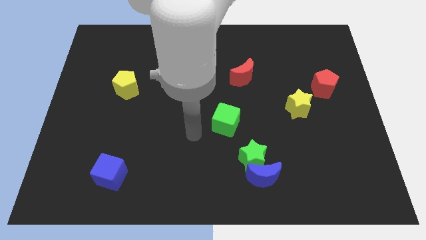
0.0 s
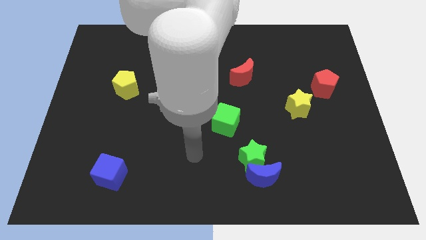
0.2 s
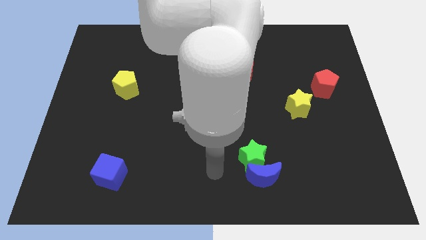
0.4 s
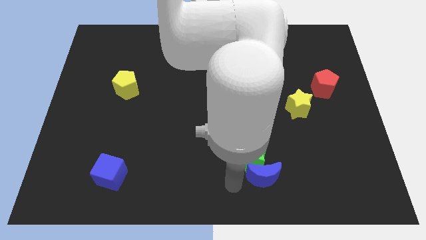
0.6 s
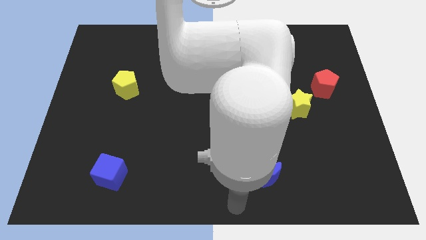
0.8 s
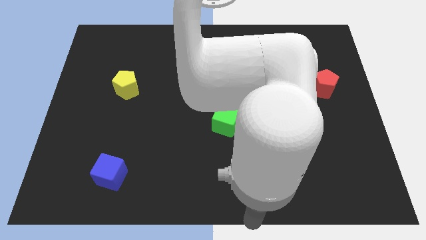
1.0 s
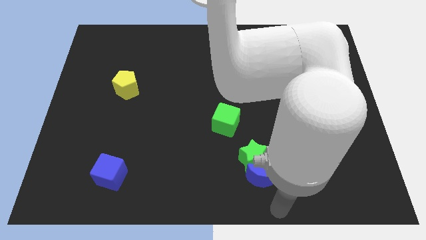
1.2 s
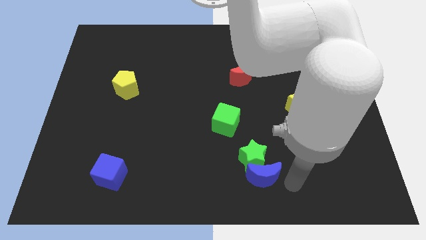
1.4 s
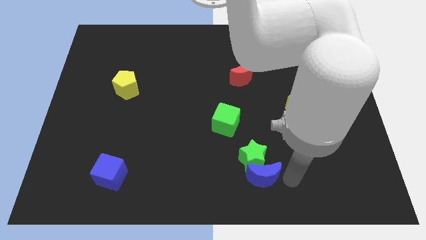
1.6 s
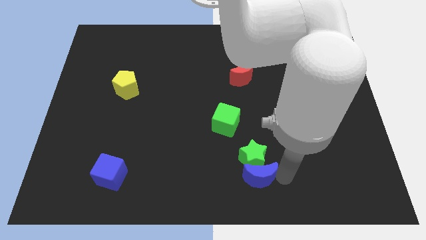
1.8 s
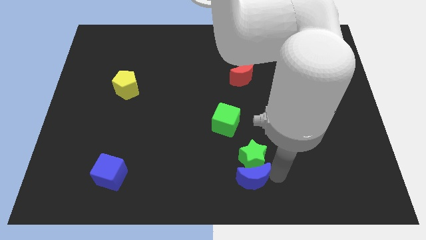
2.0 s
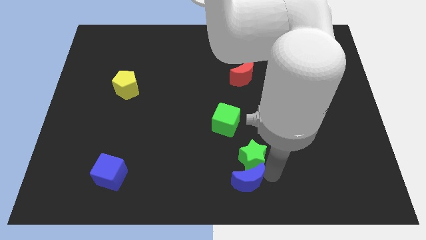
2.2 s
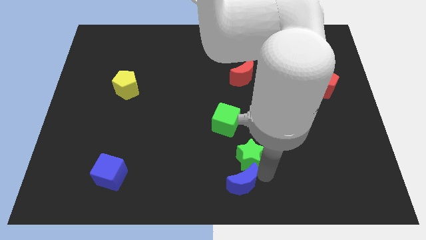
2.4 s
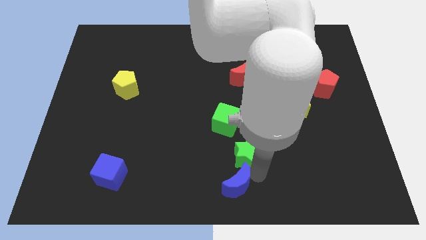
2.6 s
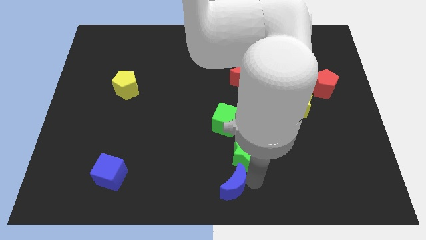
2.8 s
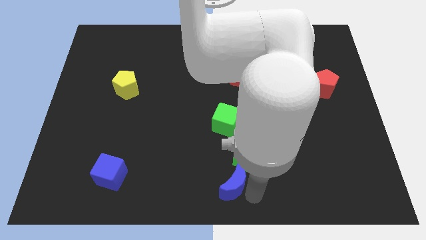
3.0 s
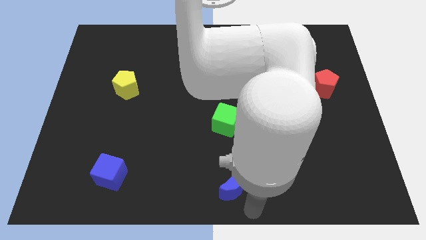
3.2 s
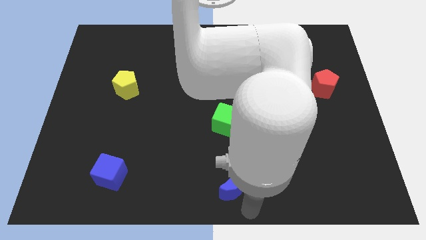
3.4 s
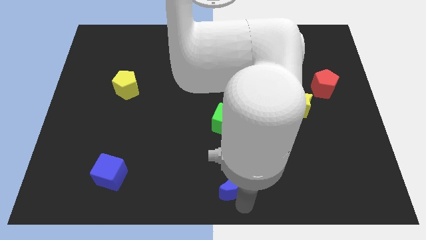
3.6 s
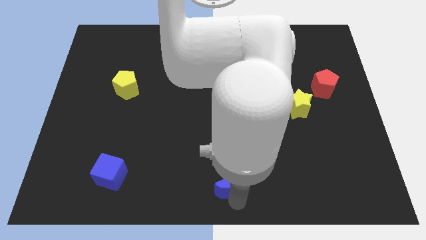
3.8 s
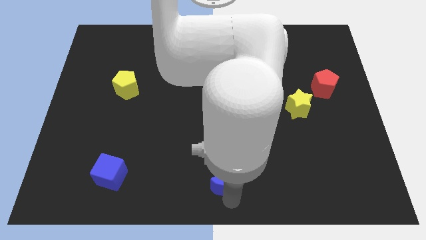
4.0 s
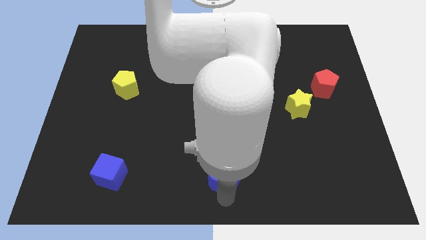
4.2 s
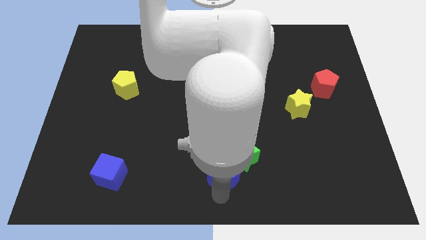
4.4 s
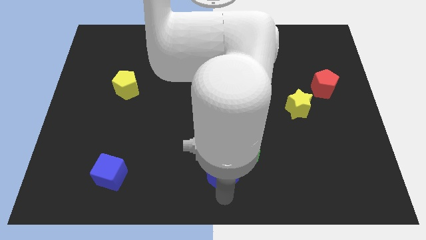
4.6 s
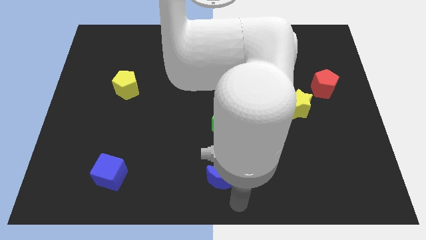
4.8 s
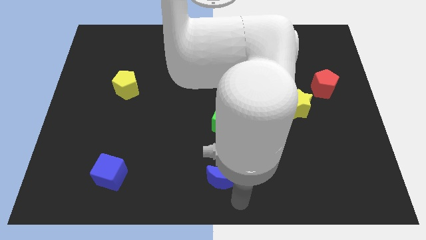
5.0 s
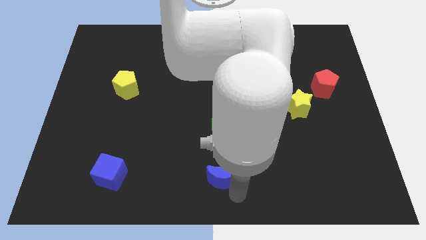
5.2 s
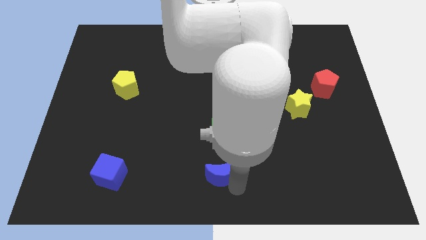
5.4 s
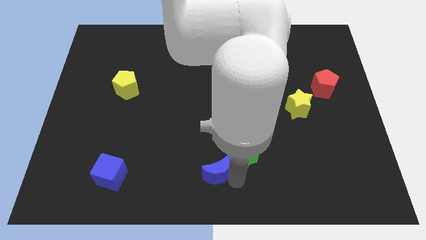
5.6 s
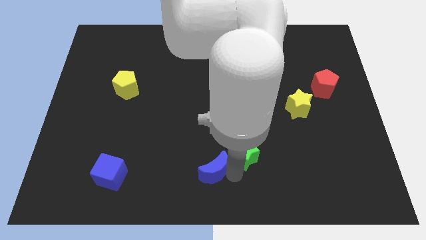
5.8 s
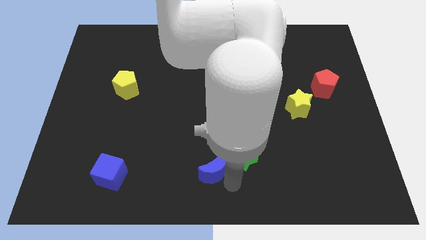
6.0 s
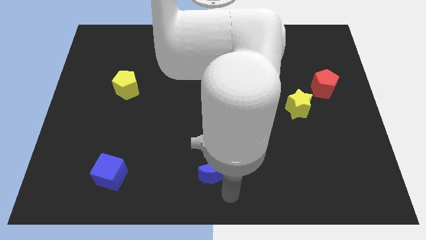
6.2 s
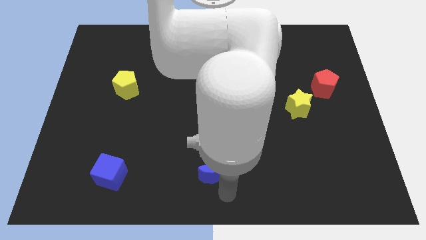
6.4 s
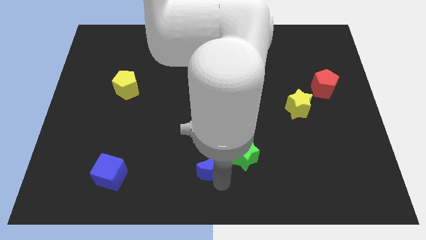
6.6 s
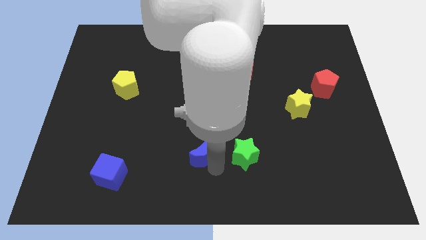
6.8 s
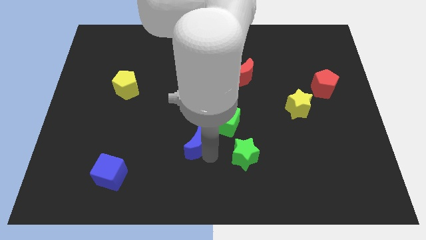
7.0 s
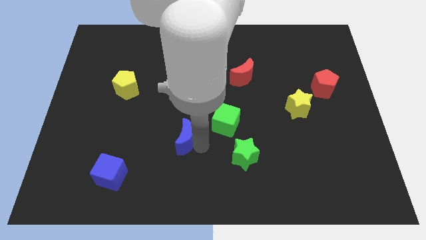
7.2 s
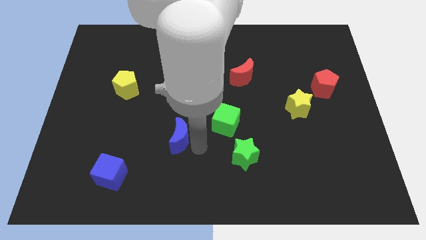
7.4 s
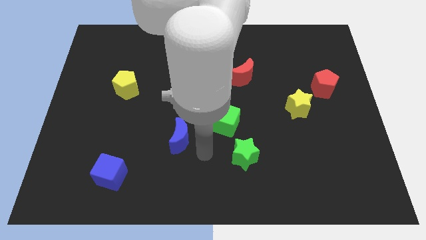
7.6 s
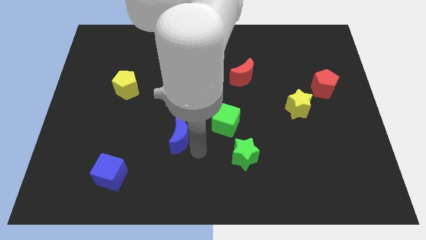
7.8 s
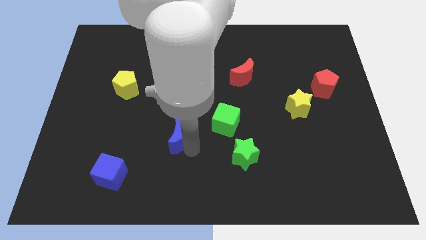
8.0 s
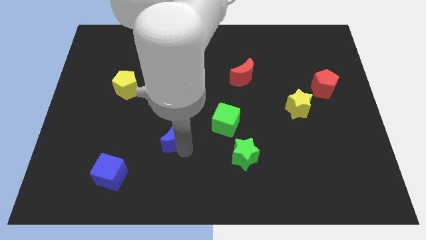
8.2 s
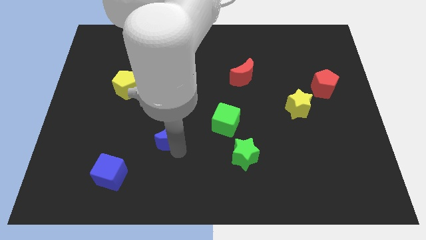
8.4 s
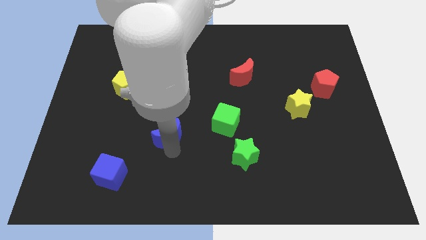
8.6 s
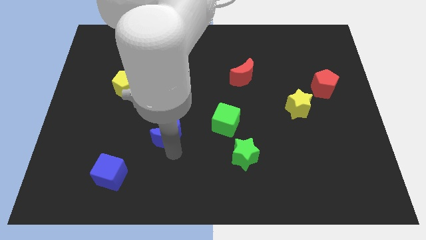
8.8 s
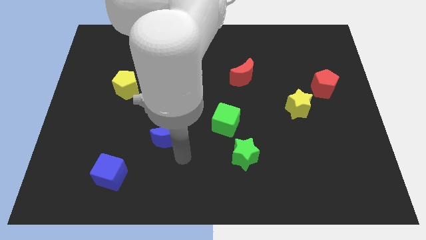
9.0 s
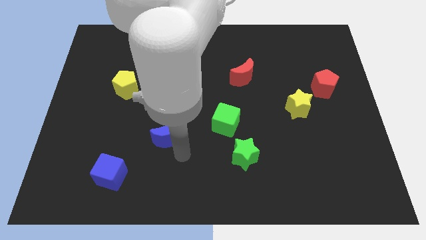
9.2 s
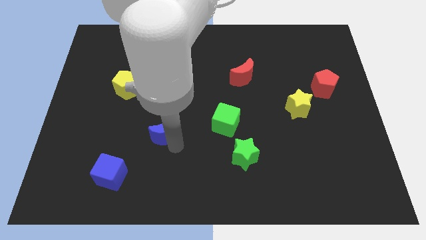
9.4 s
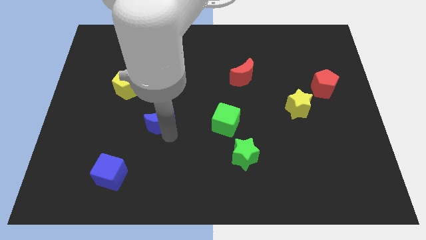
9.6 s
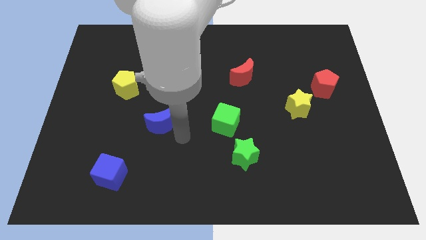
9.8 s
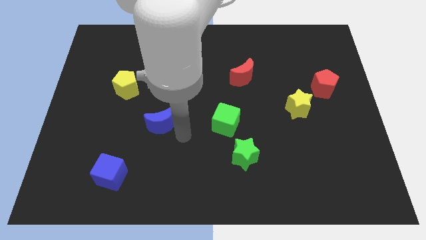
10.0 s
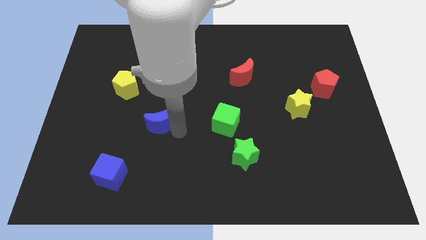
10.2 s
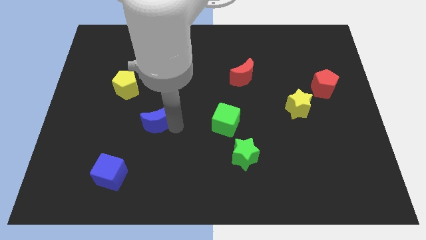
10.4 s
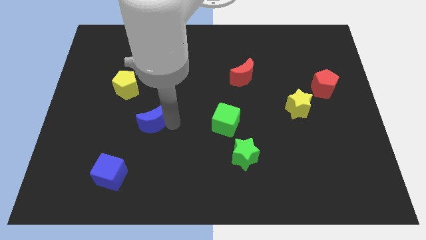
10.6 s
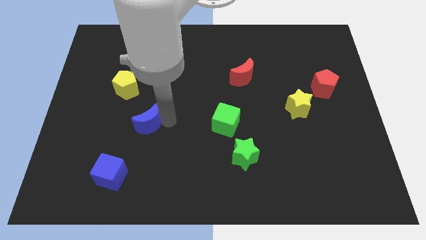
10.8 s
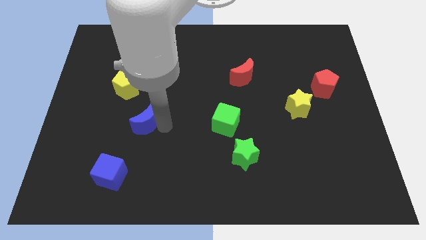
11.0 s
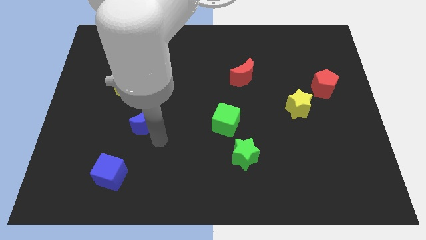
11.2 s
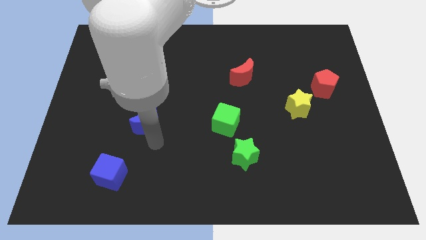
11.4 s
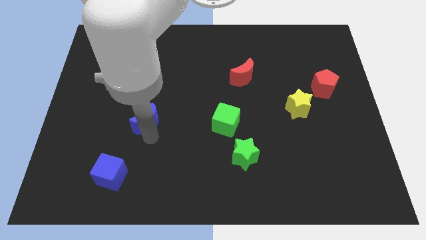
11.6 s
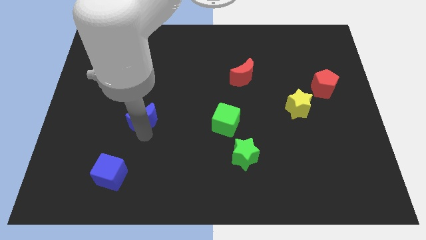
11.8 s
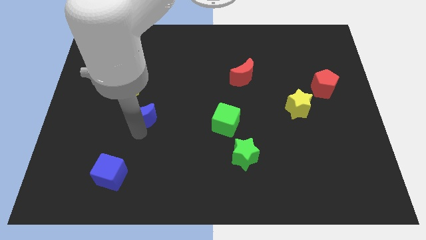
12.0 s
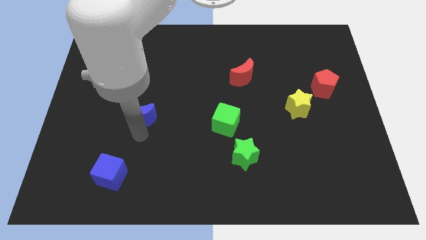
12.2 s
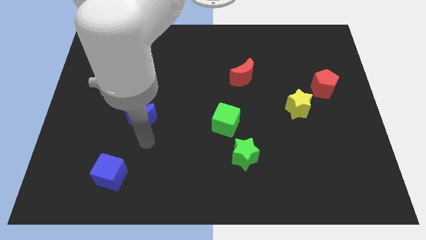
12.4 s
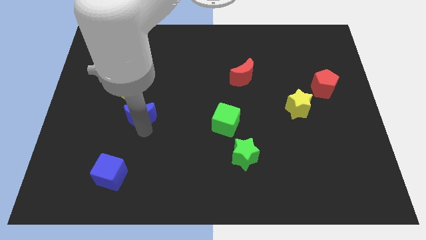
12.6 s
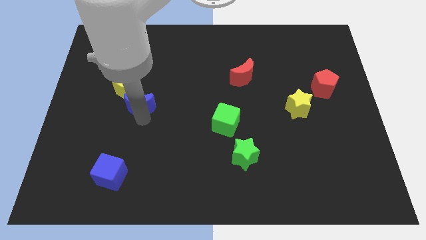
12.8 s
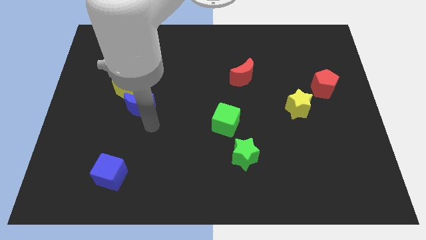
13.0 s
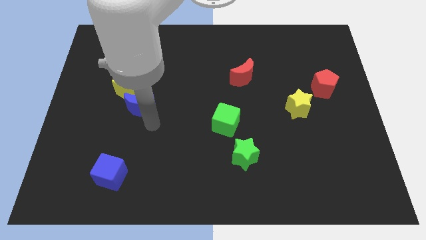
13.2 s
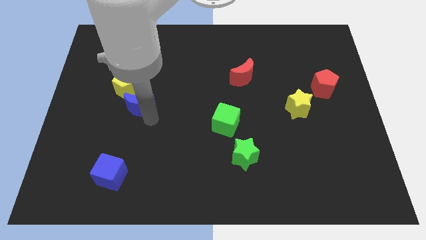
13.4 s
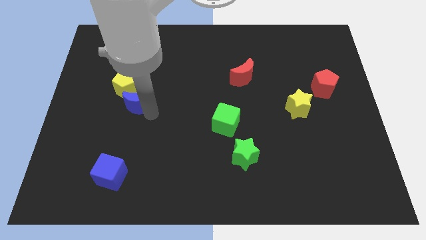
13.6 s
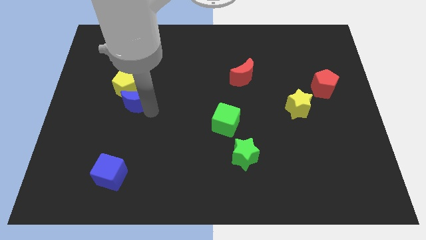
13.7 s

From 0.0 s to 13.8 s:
slide the blue moon close to the yellow pentagon

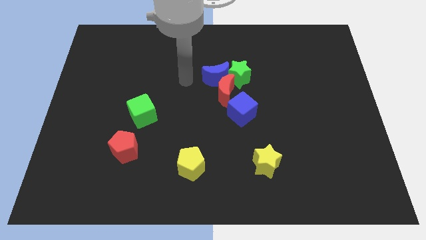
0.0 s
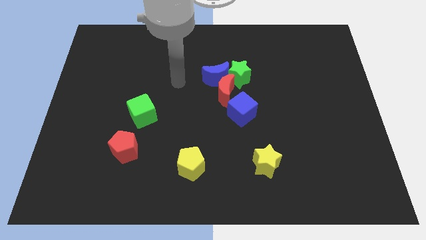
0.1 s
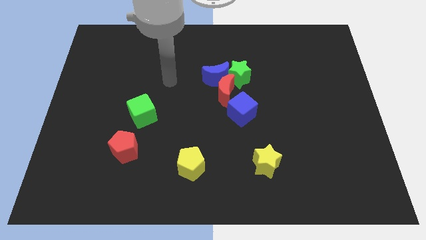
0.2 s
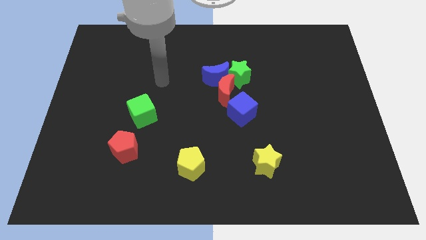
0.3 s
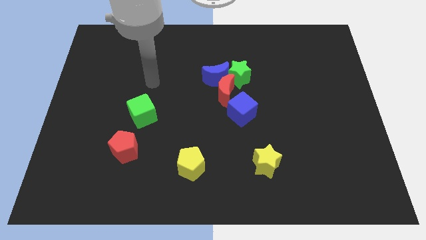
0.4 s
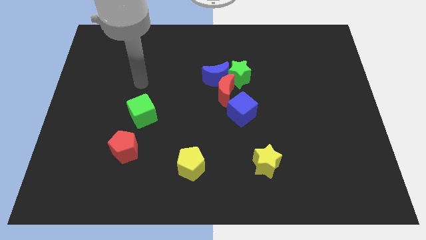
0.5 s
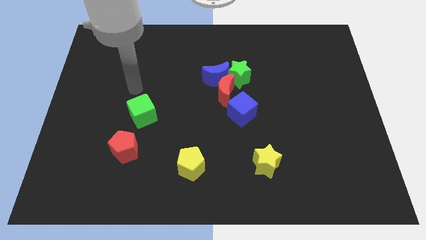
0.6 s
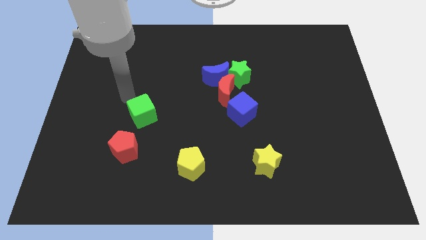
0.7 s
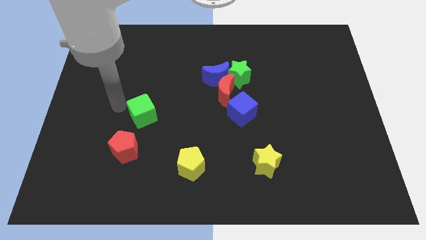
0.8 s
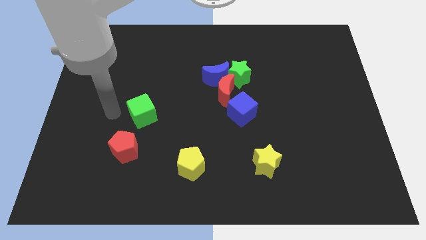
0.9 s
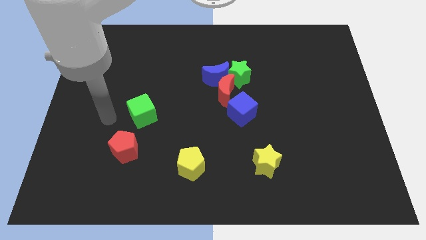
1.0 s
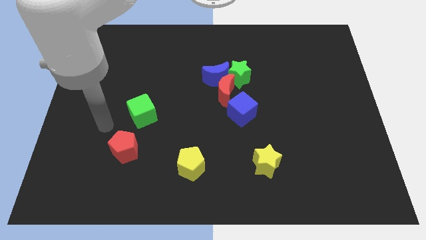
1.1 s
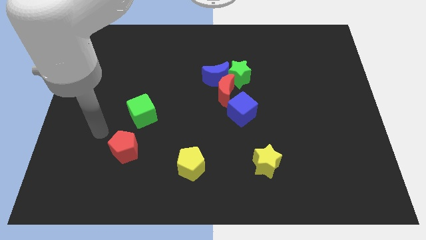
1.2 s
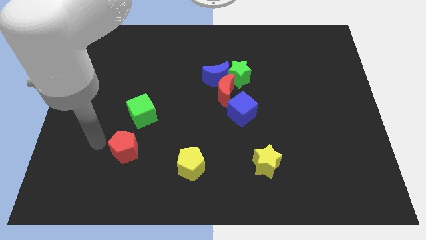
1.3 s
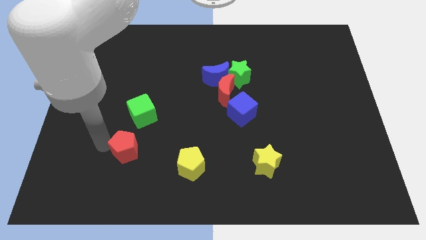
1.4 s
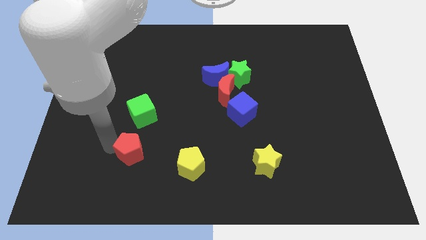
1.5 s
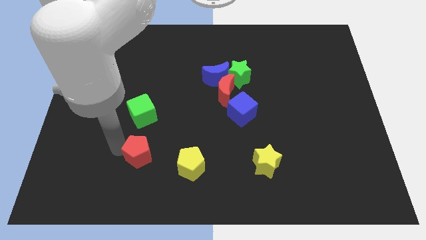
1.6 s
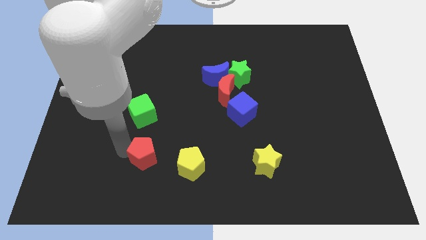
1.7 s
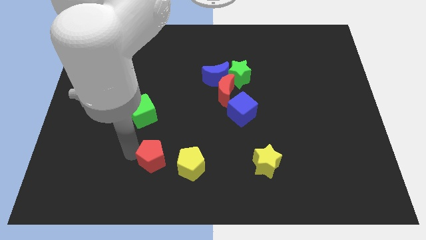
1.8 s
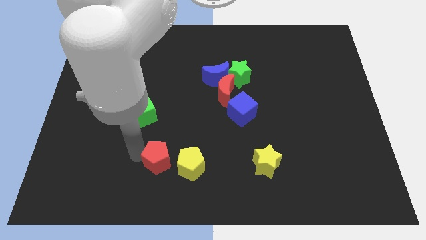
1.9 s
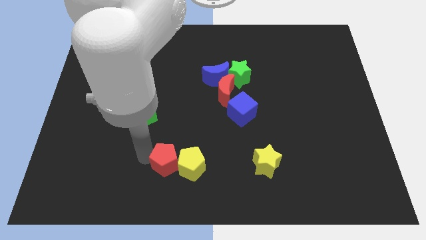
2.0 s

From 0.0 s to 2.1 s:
slide the red pentagon close to the yellow pentagon
